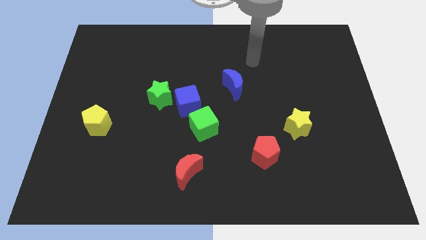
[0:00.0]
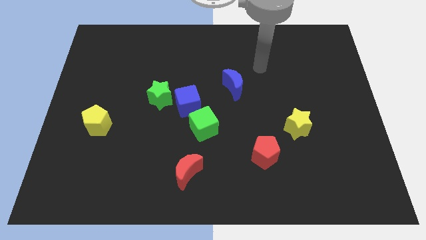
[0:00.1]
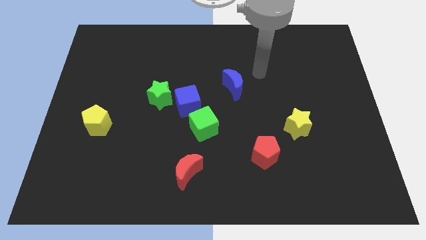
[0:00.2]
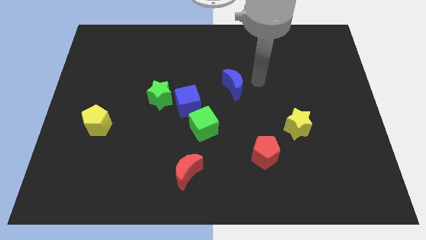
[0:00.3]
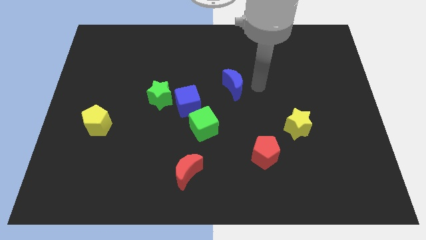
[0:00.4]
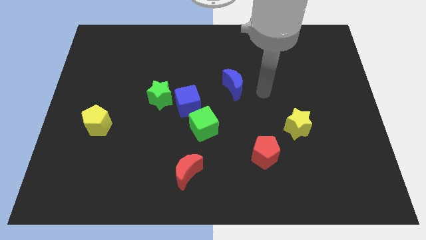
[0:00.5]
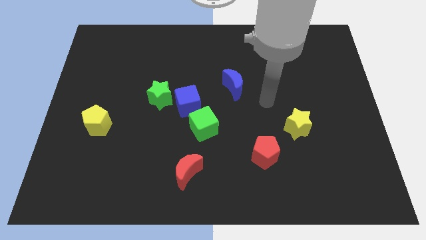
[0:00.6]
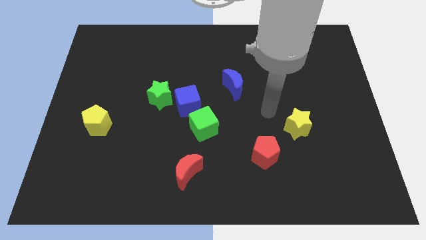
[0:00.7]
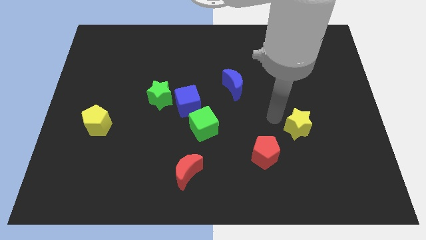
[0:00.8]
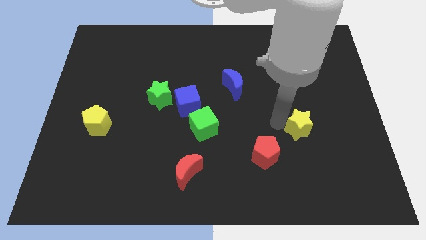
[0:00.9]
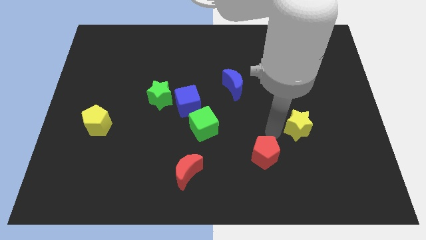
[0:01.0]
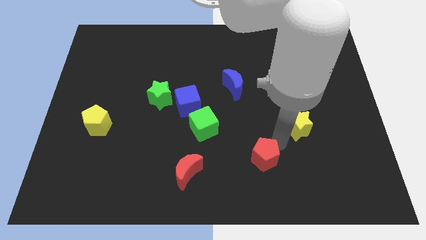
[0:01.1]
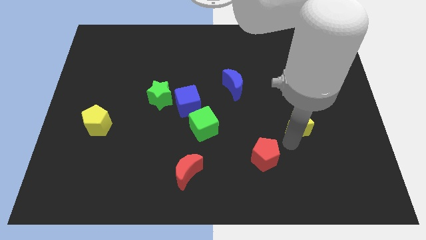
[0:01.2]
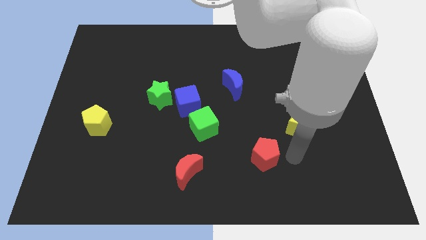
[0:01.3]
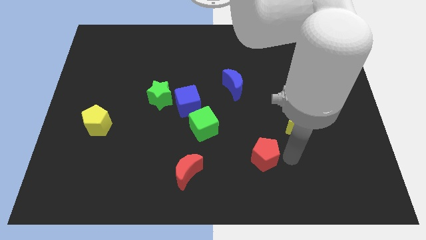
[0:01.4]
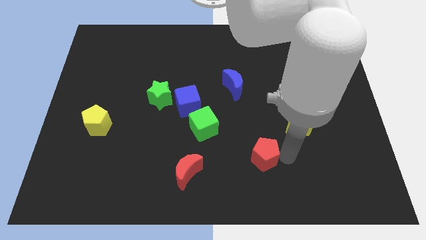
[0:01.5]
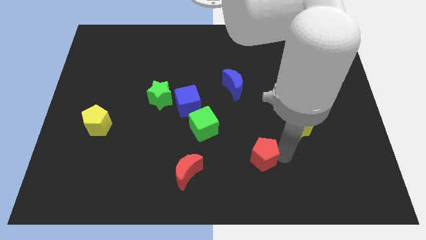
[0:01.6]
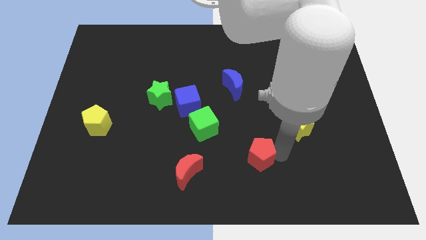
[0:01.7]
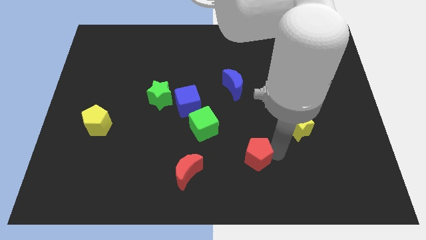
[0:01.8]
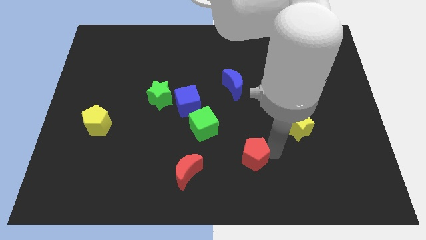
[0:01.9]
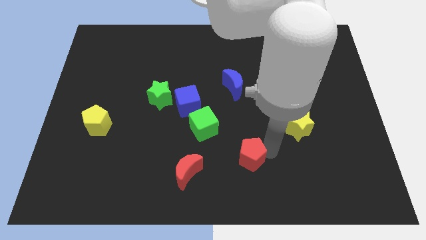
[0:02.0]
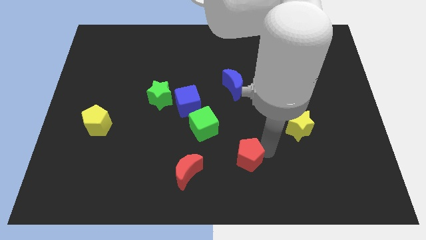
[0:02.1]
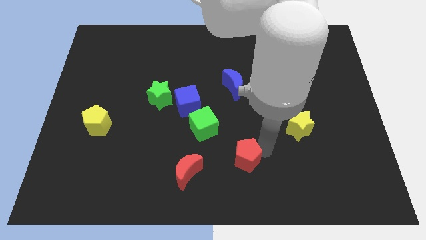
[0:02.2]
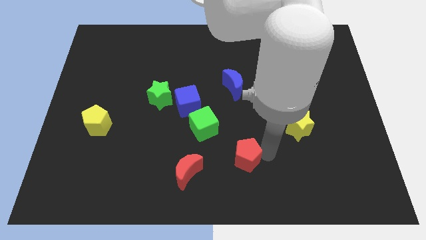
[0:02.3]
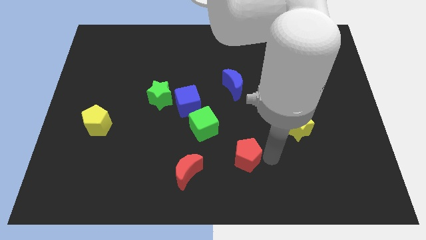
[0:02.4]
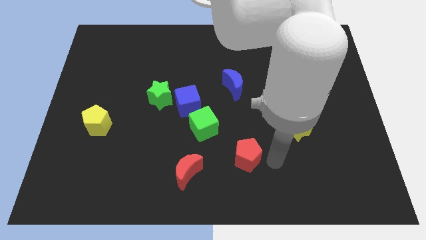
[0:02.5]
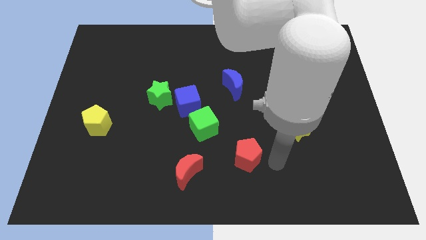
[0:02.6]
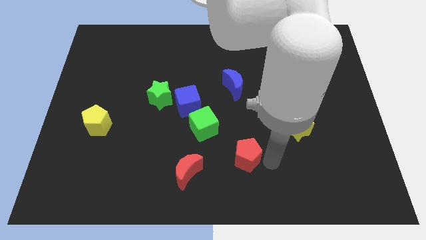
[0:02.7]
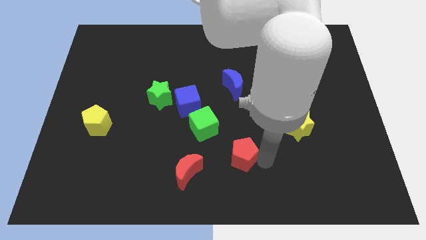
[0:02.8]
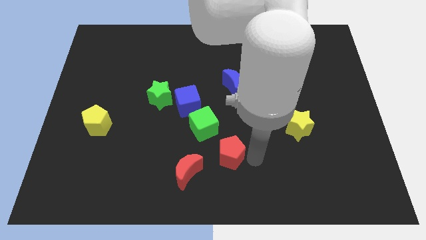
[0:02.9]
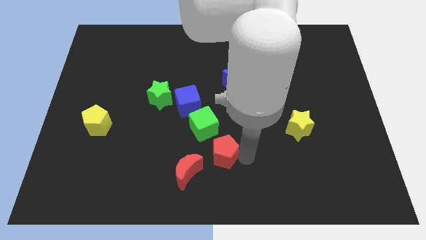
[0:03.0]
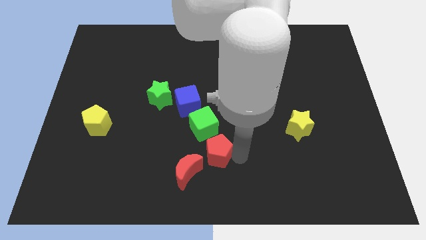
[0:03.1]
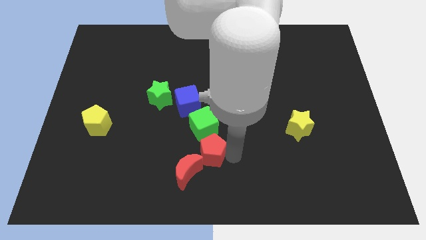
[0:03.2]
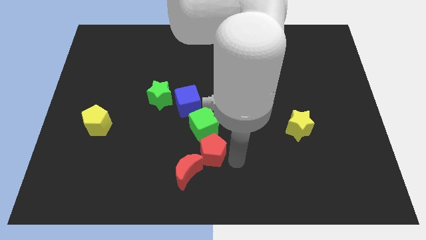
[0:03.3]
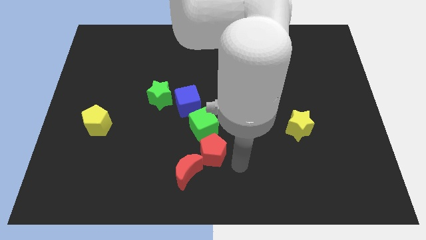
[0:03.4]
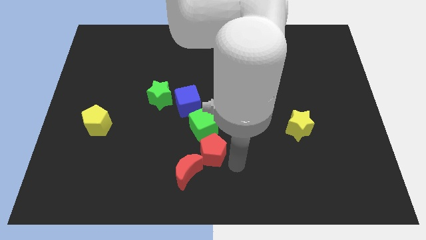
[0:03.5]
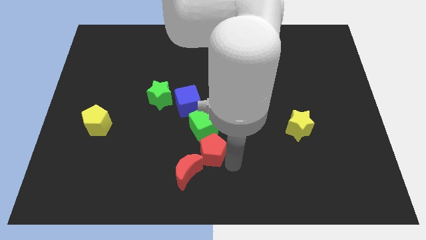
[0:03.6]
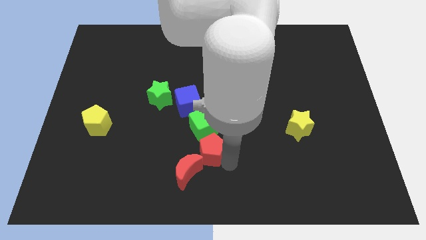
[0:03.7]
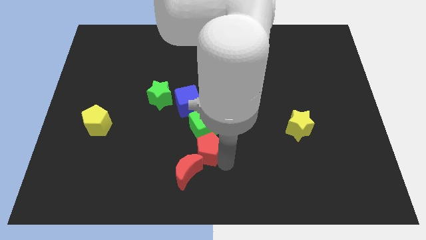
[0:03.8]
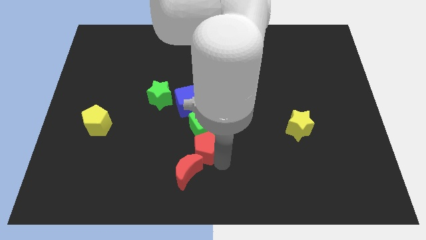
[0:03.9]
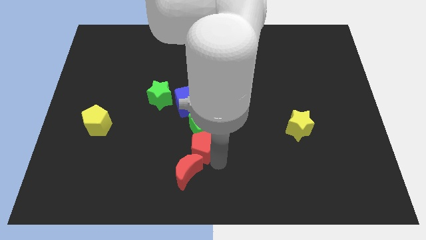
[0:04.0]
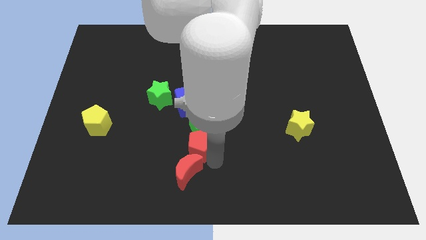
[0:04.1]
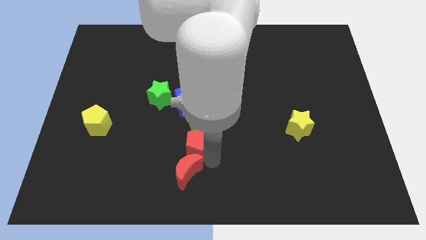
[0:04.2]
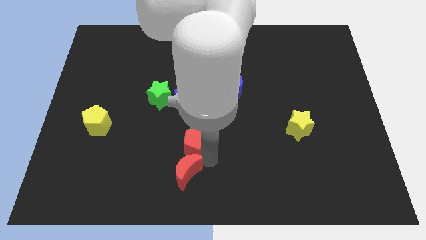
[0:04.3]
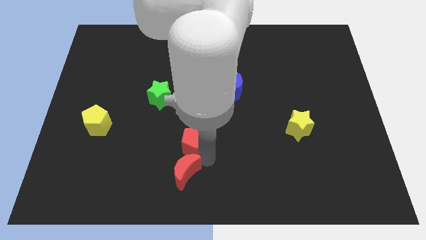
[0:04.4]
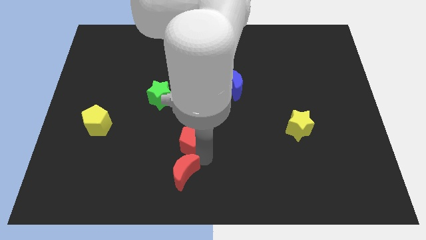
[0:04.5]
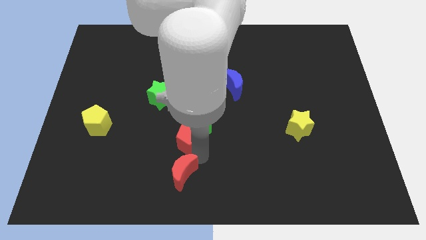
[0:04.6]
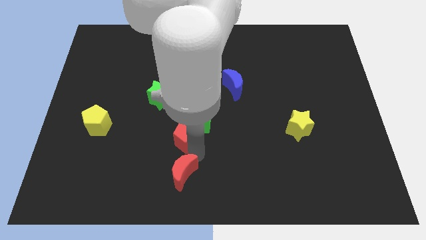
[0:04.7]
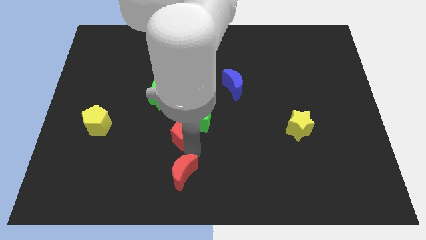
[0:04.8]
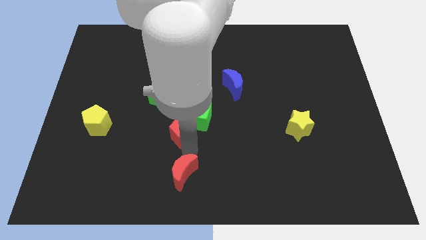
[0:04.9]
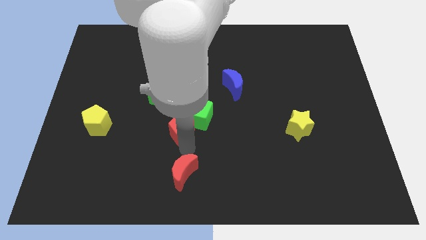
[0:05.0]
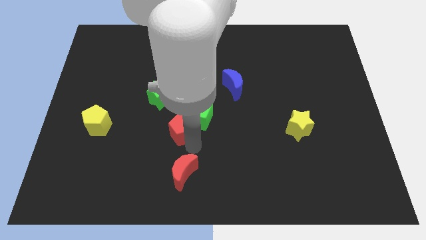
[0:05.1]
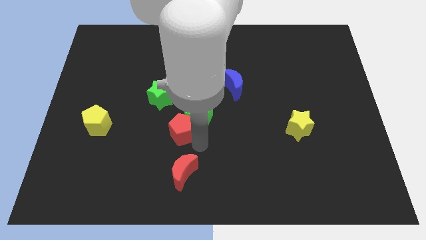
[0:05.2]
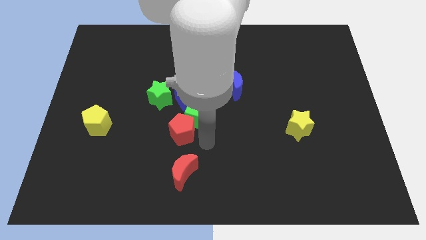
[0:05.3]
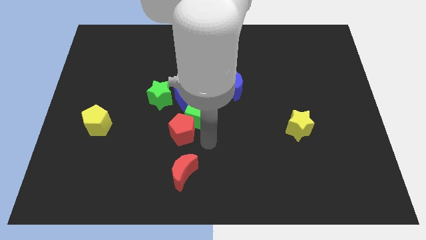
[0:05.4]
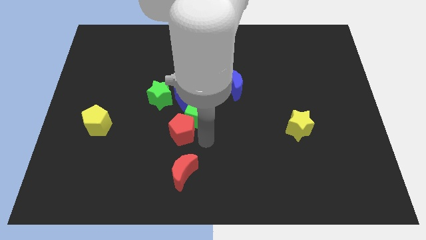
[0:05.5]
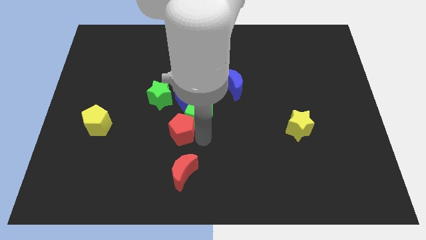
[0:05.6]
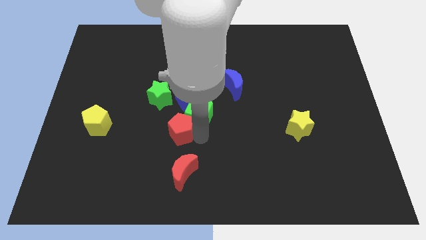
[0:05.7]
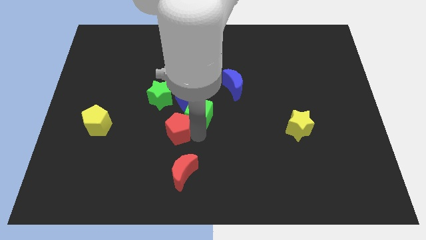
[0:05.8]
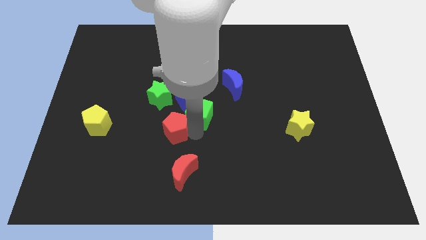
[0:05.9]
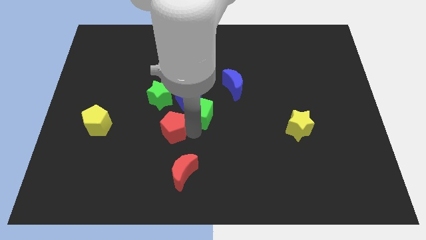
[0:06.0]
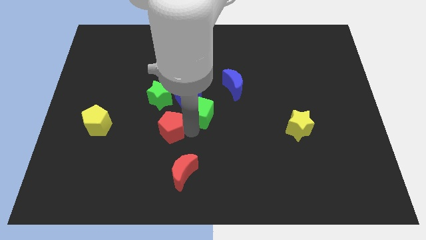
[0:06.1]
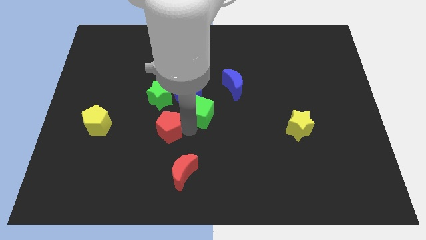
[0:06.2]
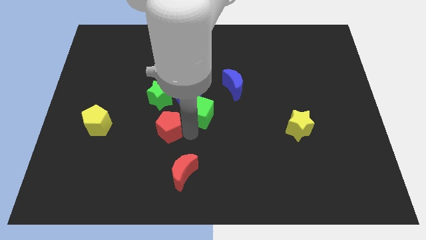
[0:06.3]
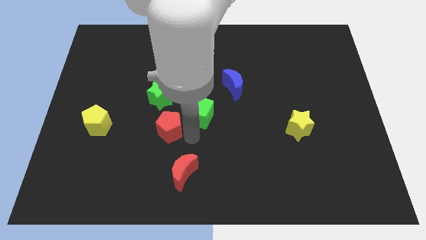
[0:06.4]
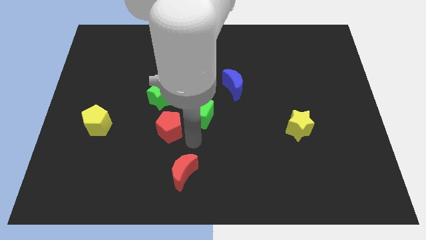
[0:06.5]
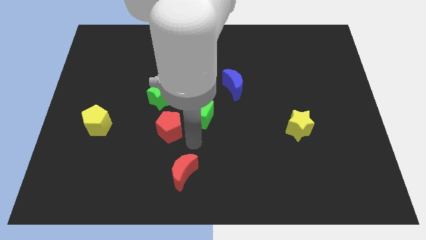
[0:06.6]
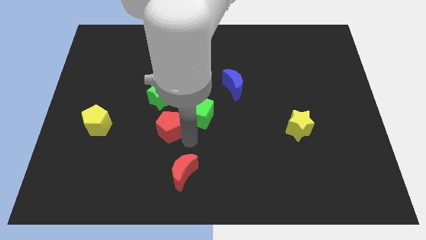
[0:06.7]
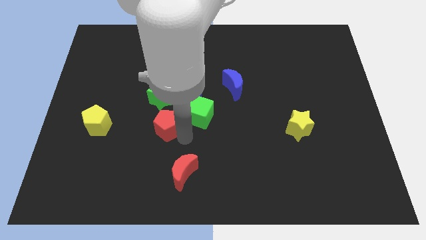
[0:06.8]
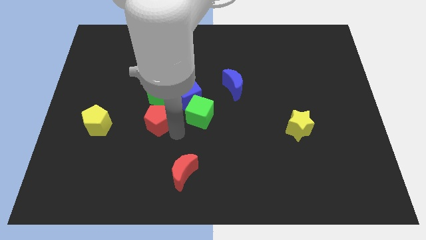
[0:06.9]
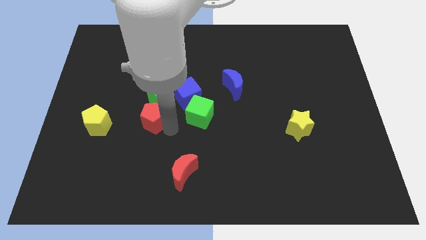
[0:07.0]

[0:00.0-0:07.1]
move the red pentagon diagonally down and to the left of the green star
